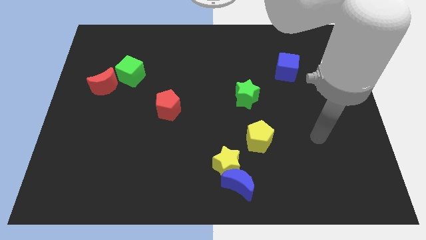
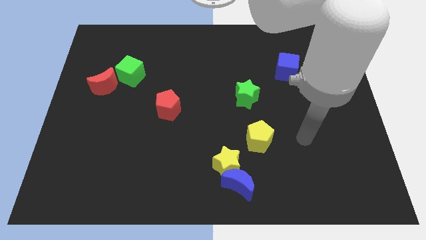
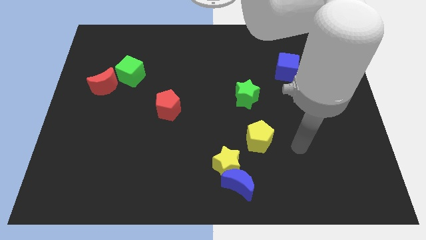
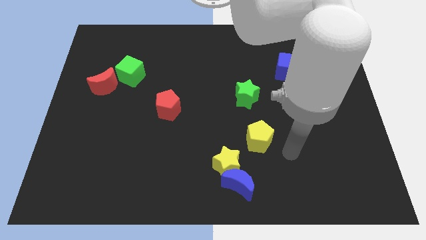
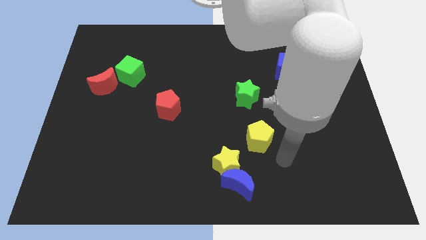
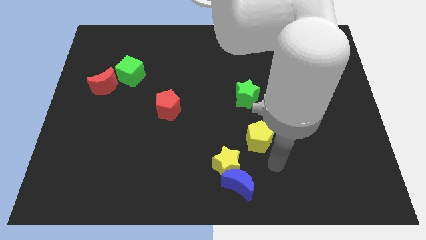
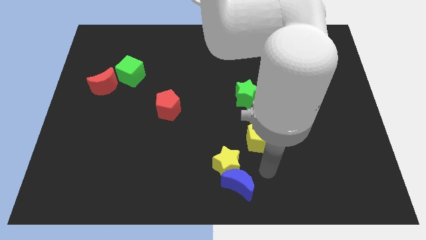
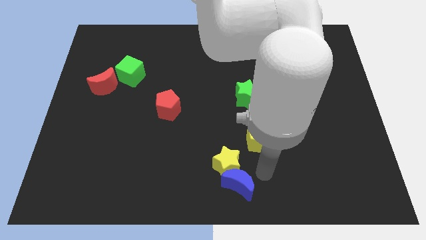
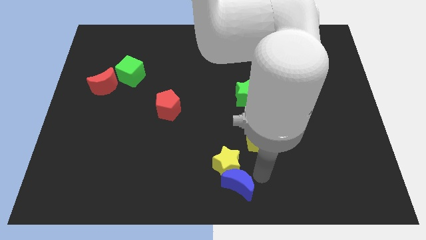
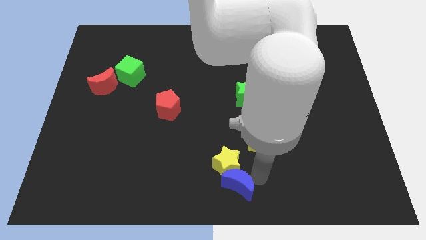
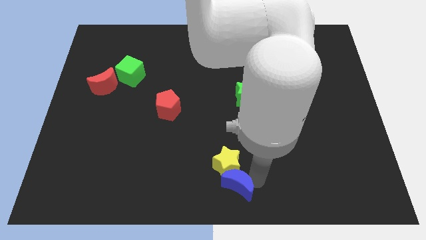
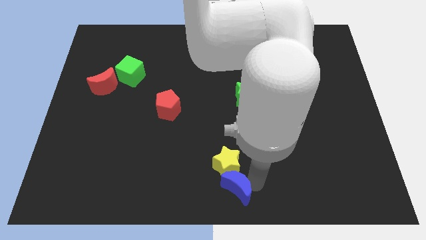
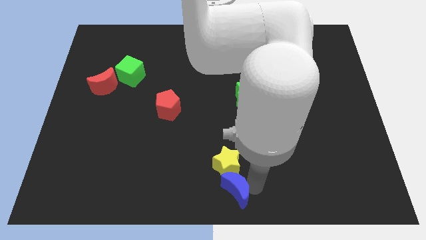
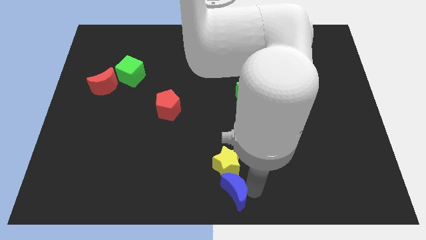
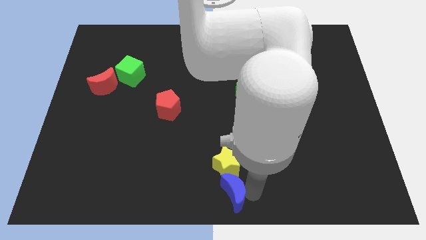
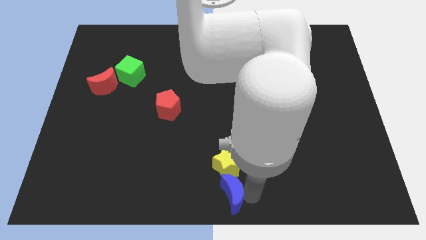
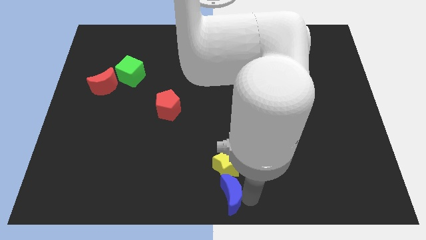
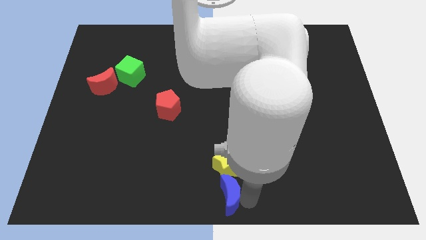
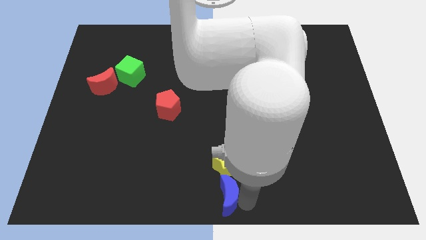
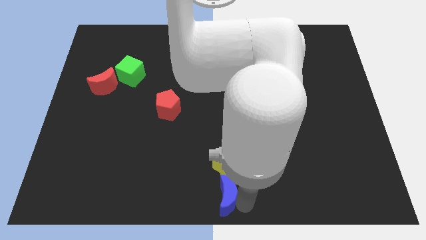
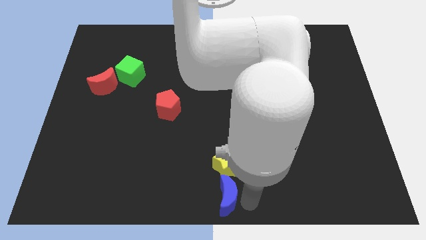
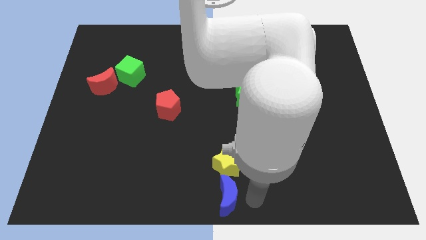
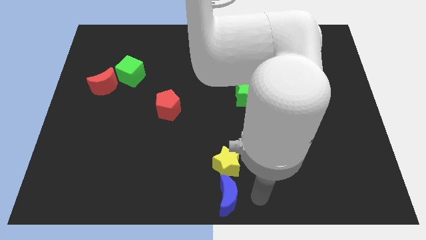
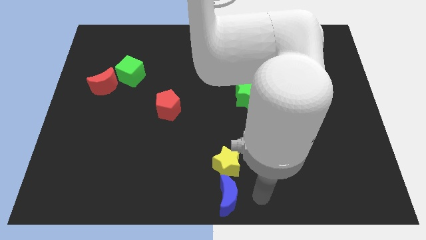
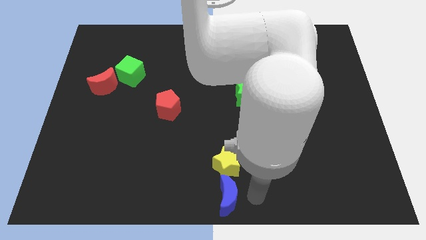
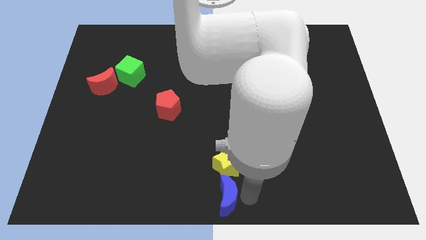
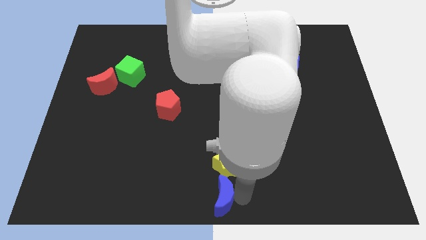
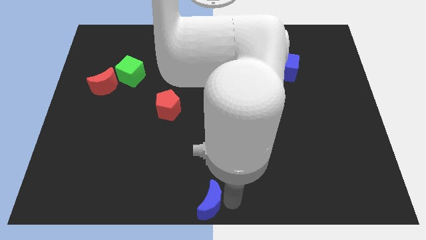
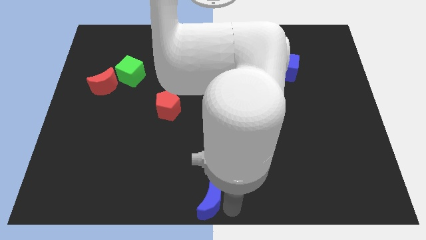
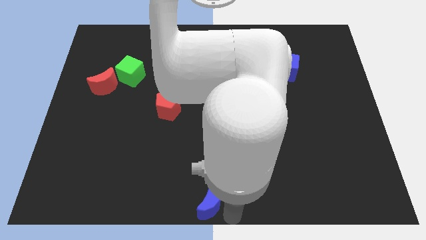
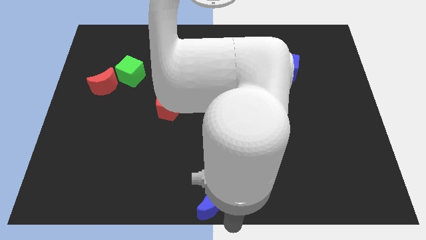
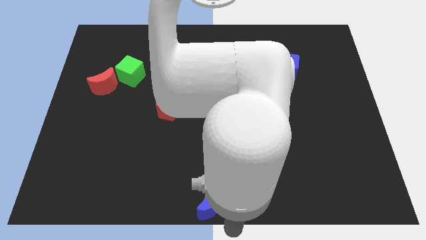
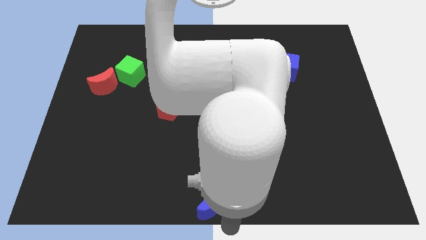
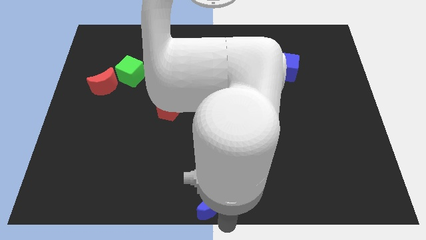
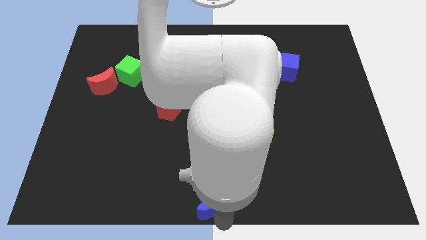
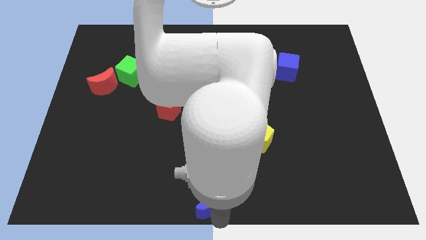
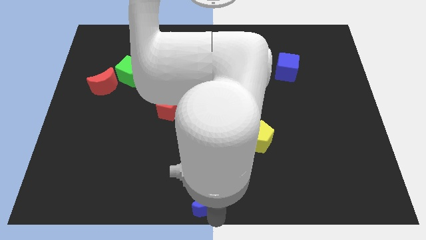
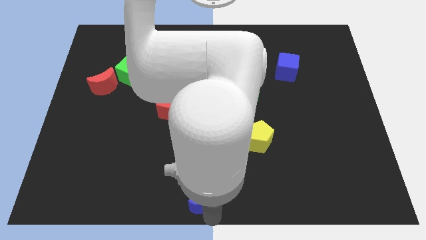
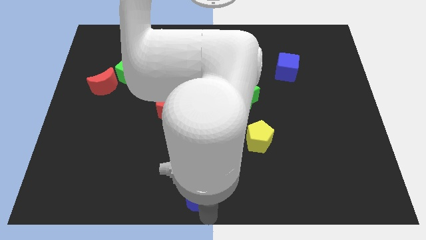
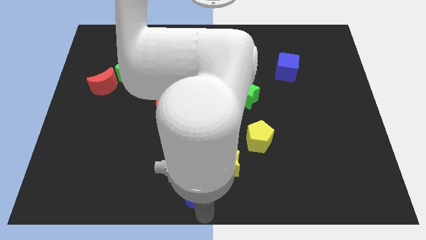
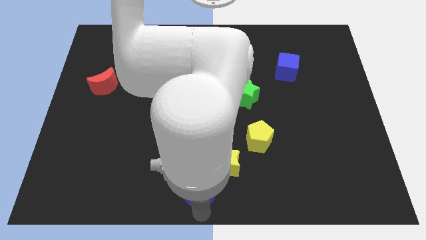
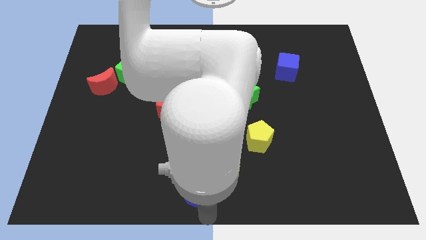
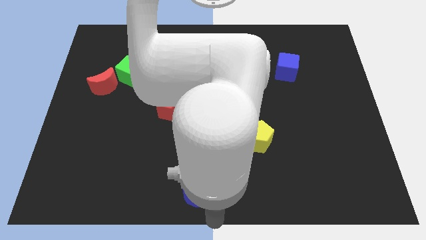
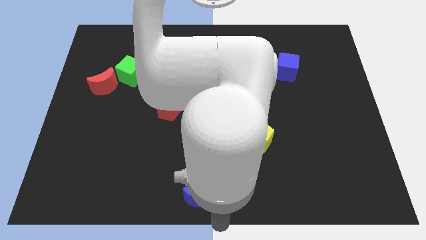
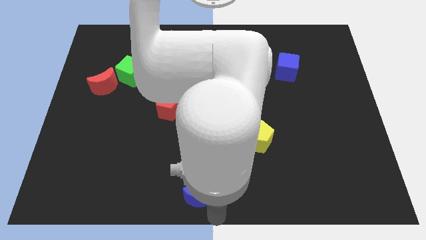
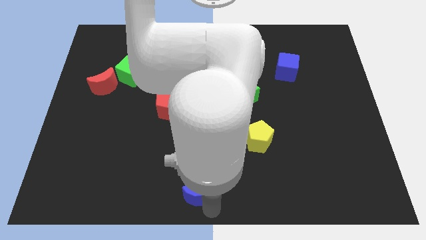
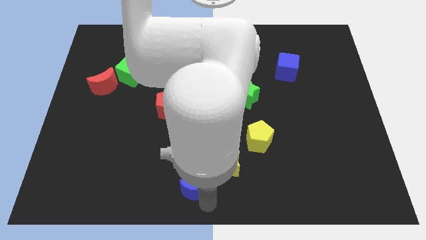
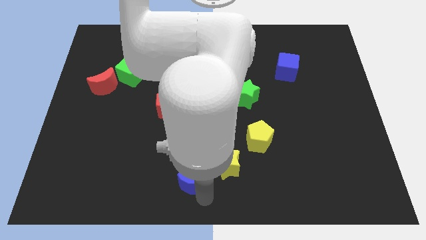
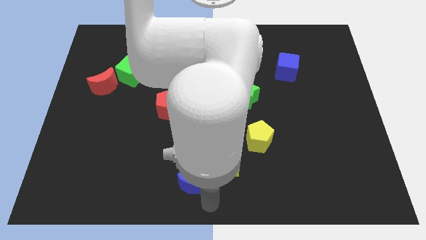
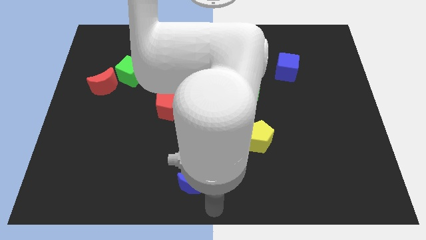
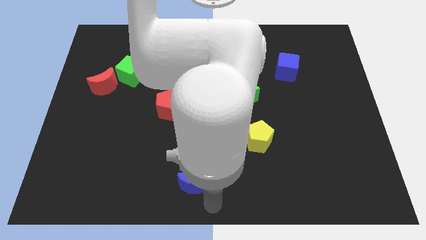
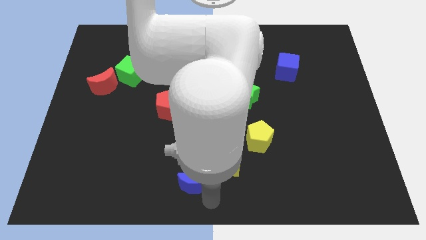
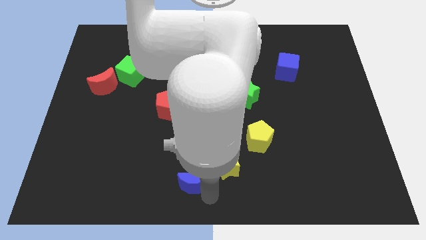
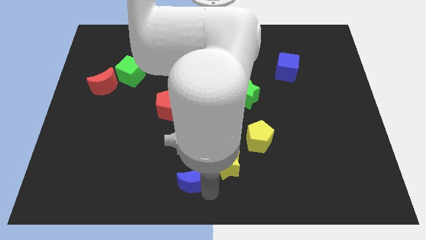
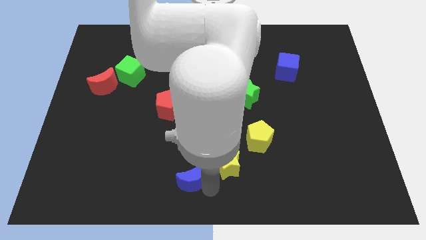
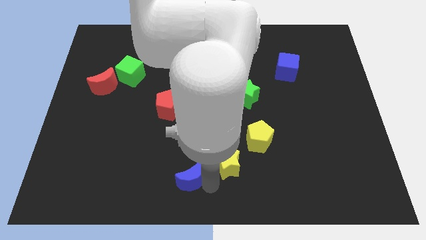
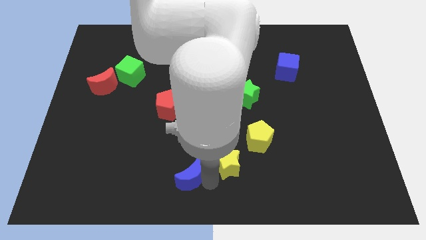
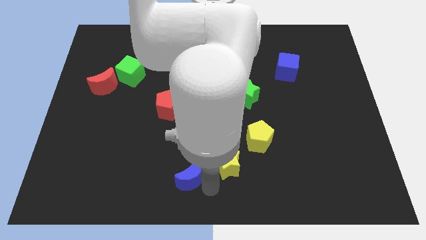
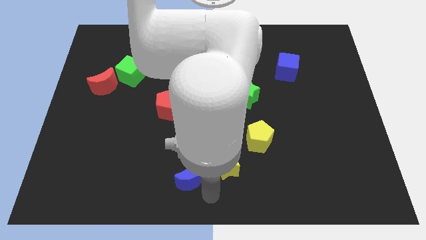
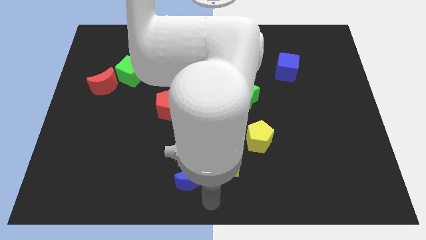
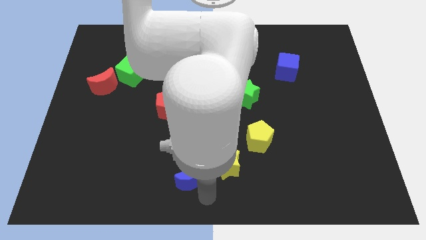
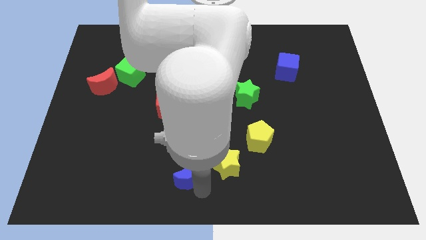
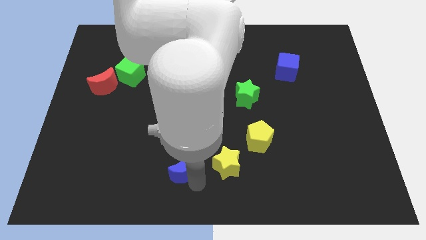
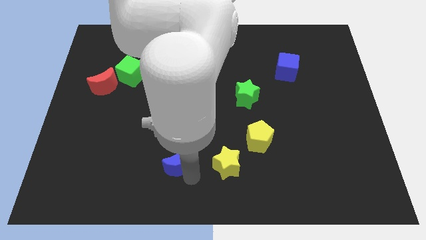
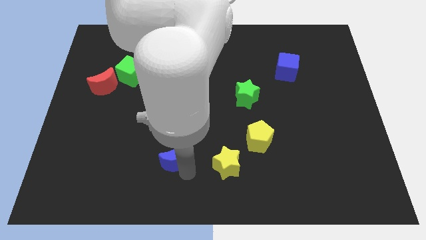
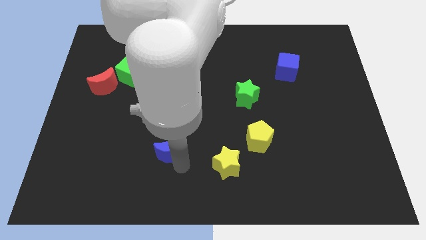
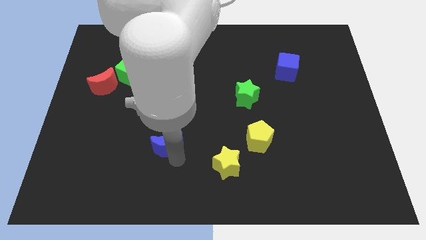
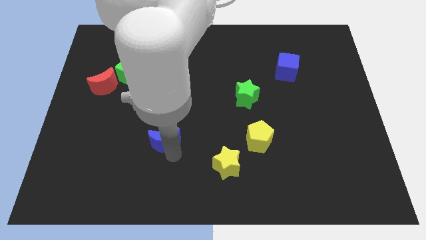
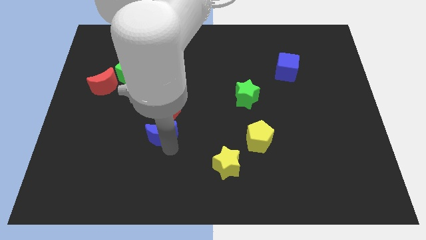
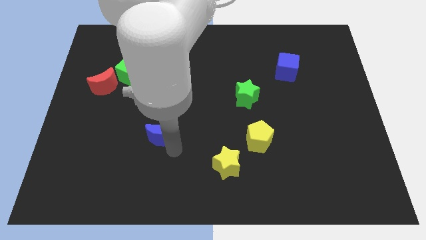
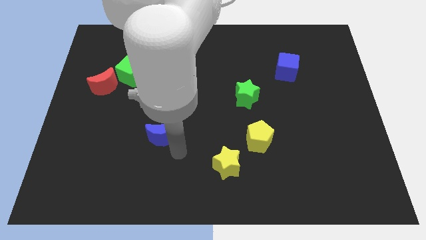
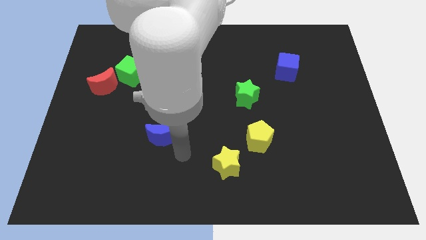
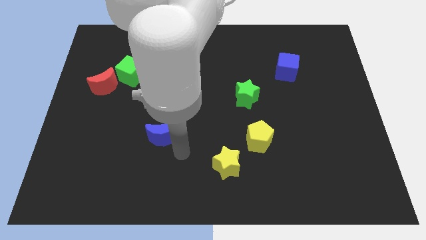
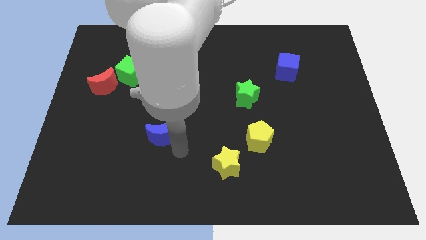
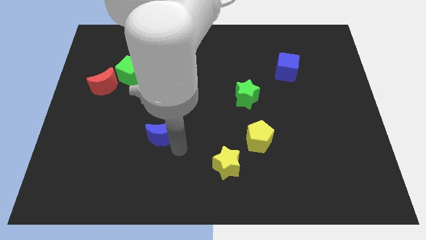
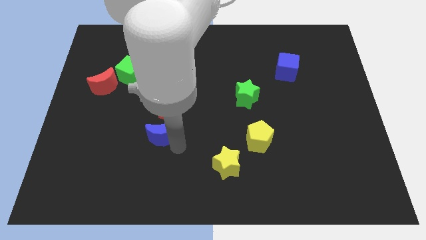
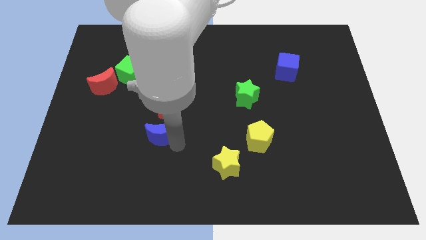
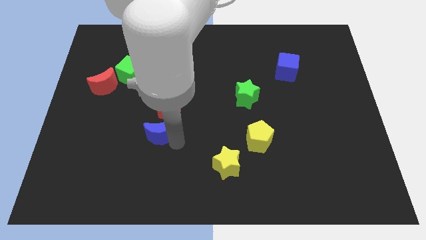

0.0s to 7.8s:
move the blue moon up and left diagonally
